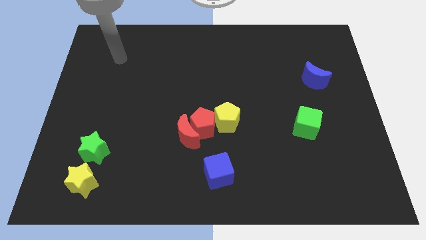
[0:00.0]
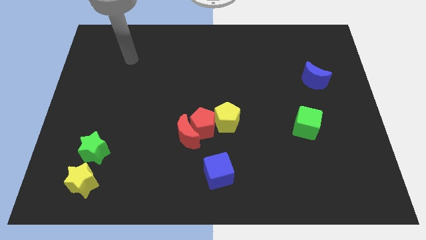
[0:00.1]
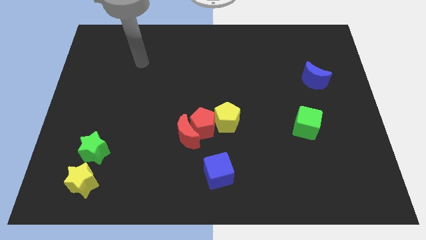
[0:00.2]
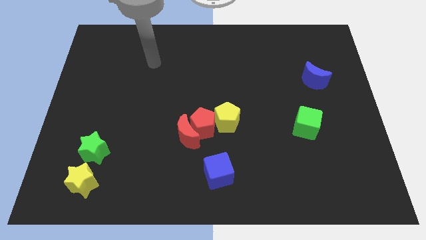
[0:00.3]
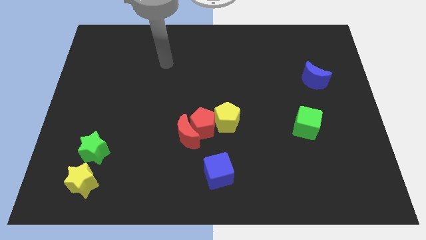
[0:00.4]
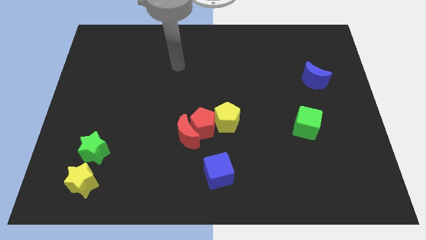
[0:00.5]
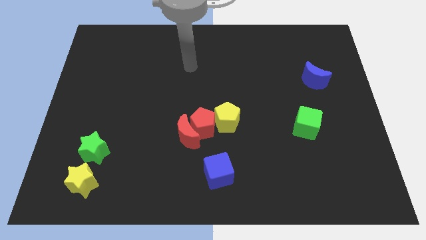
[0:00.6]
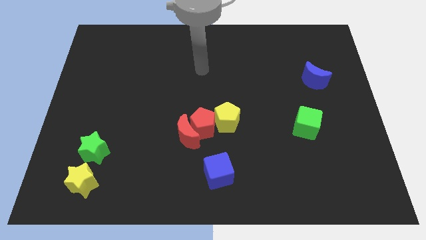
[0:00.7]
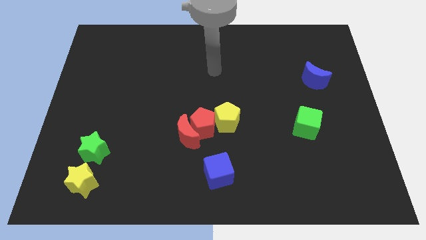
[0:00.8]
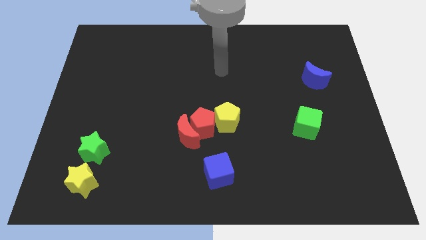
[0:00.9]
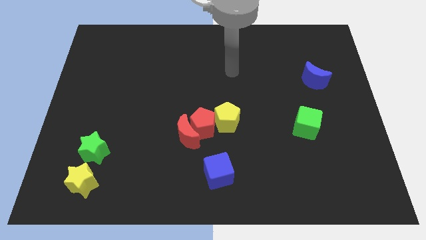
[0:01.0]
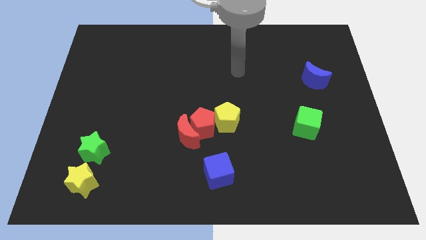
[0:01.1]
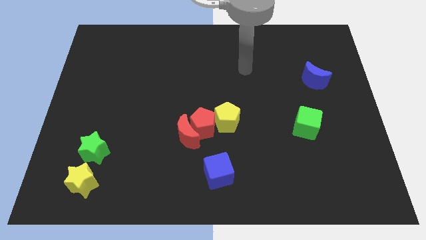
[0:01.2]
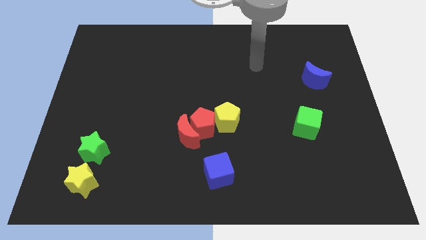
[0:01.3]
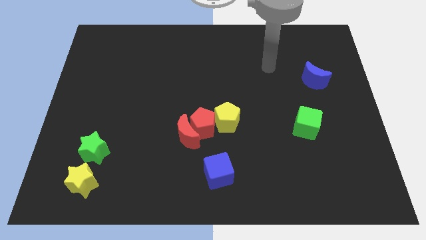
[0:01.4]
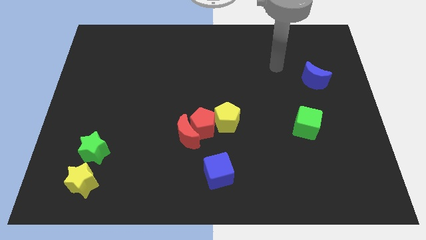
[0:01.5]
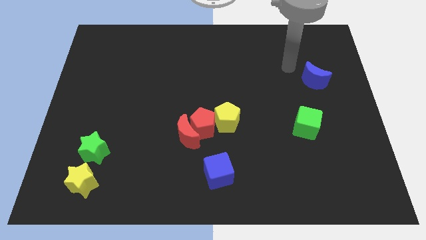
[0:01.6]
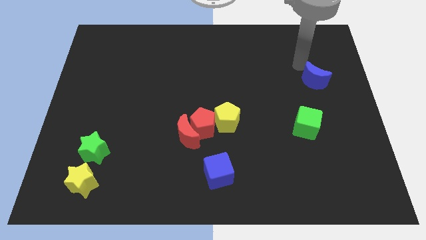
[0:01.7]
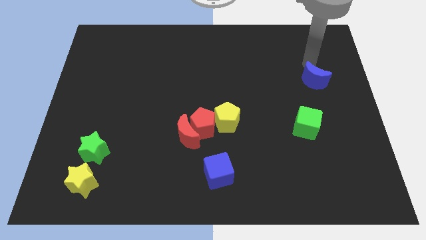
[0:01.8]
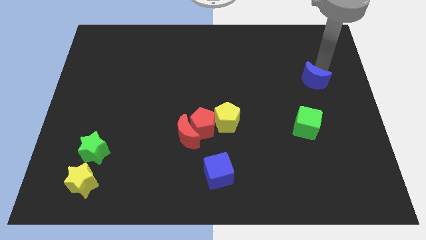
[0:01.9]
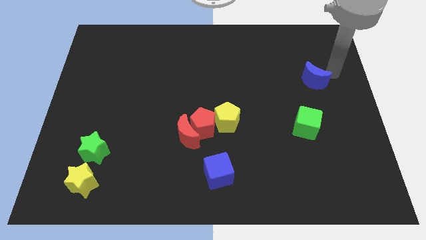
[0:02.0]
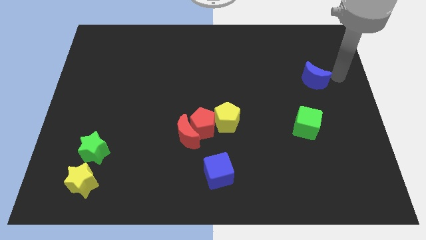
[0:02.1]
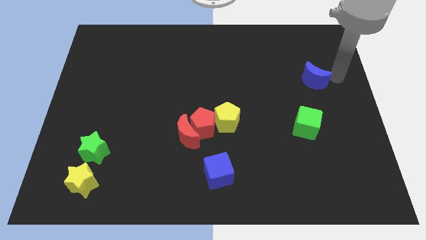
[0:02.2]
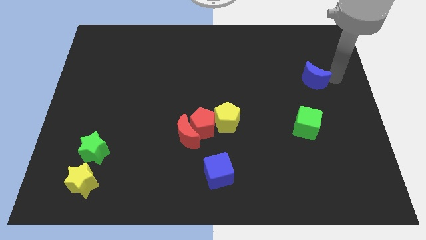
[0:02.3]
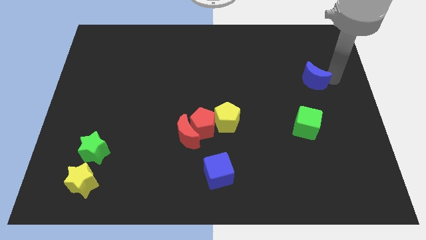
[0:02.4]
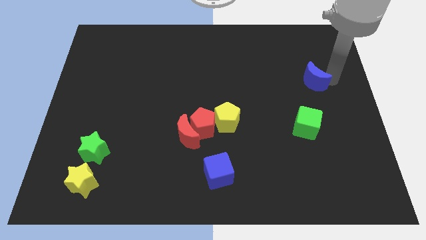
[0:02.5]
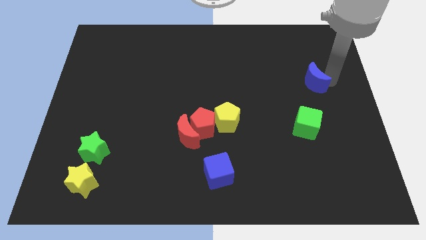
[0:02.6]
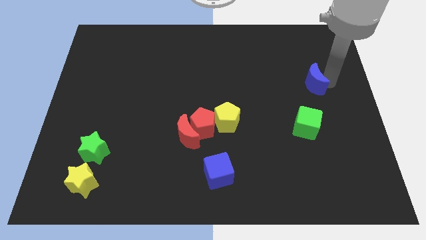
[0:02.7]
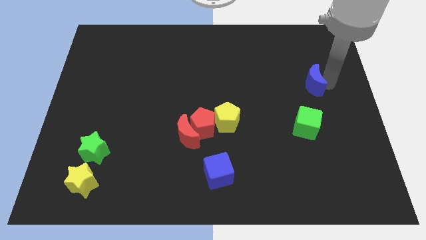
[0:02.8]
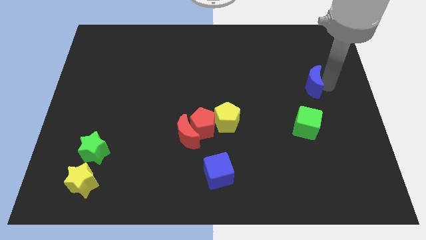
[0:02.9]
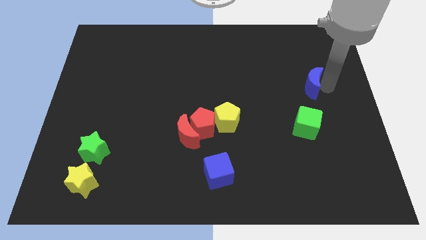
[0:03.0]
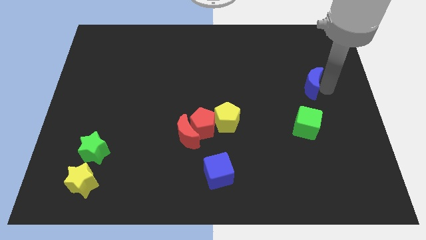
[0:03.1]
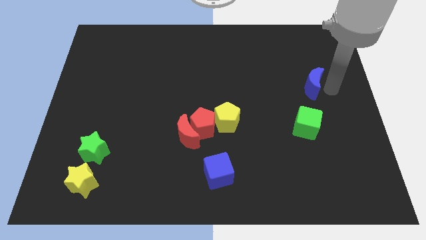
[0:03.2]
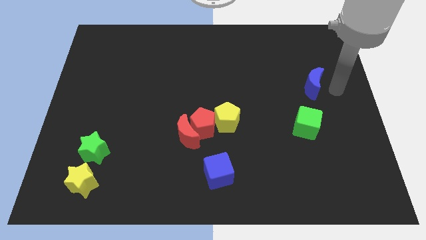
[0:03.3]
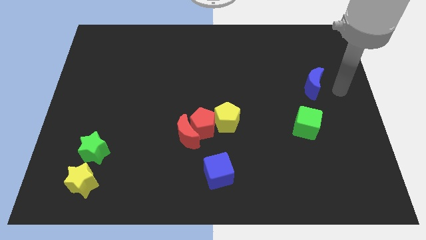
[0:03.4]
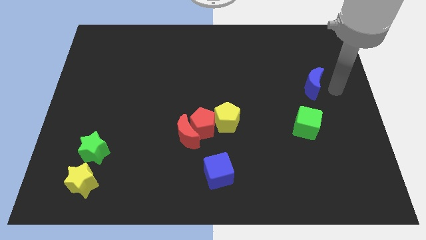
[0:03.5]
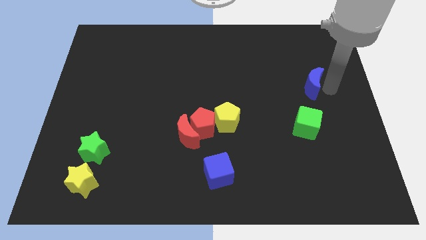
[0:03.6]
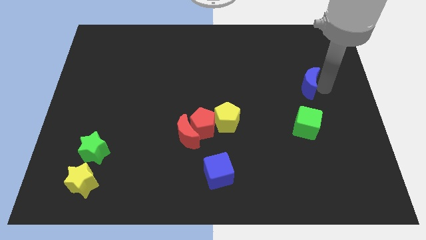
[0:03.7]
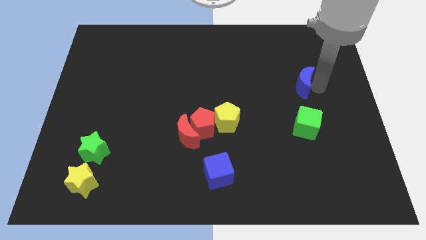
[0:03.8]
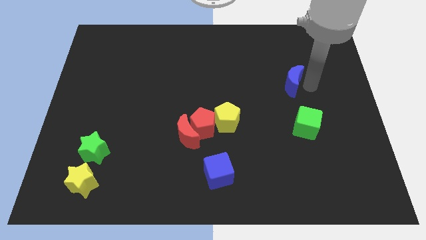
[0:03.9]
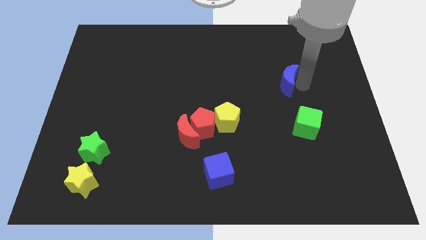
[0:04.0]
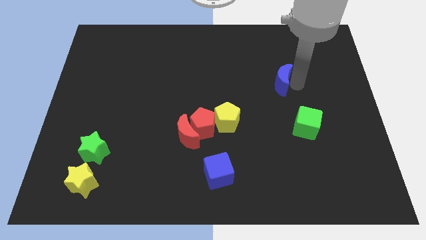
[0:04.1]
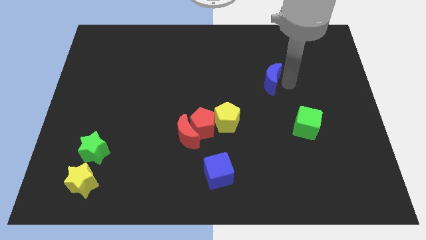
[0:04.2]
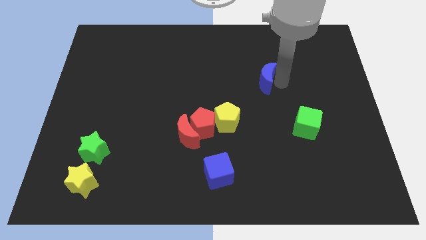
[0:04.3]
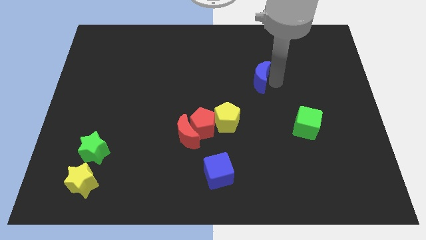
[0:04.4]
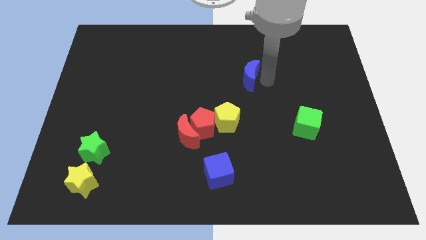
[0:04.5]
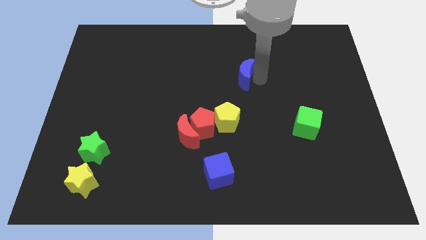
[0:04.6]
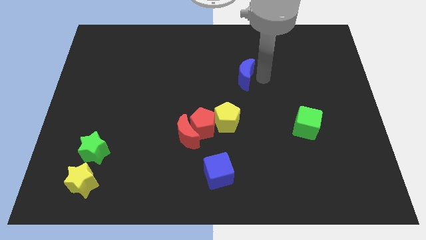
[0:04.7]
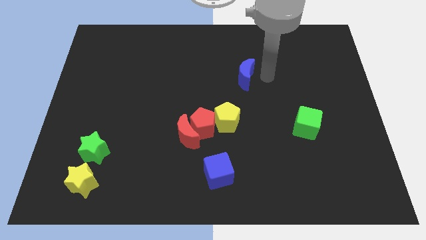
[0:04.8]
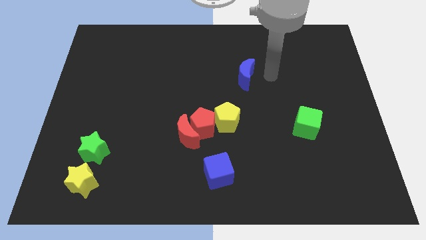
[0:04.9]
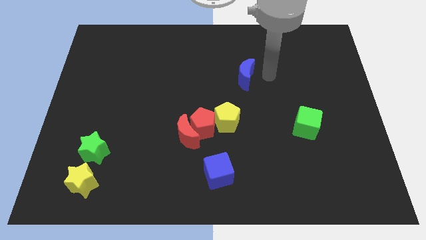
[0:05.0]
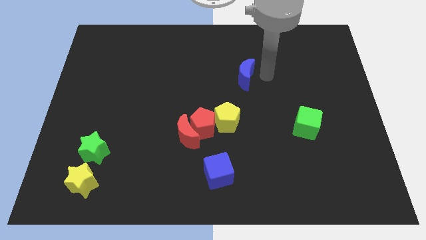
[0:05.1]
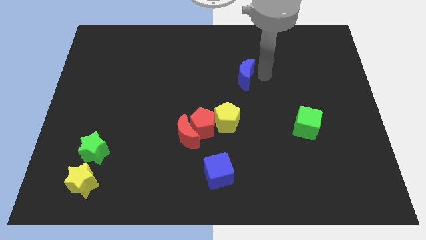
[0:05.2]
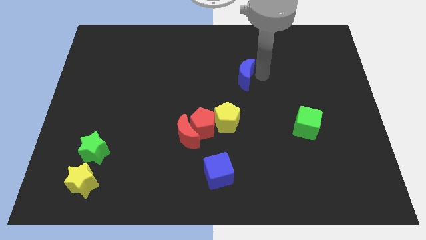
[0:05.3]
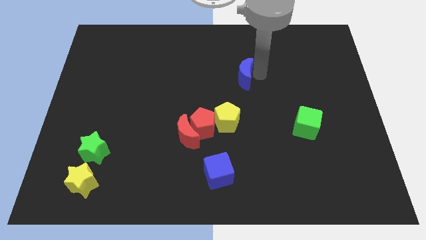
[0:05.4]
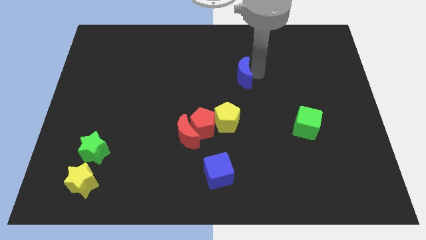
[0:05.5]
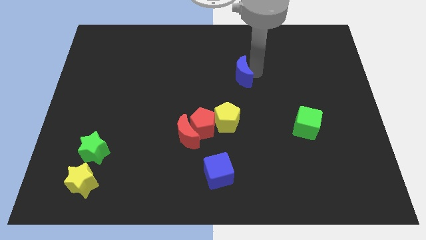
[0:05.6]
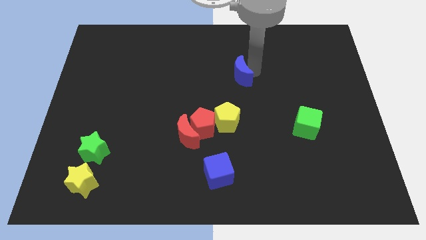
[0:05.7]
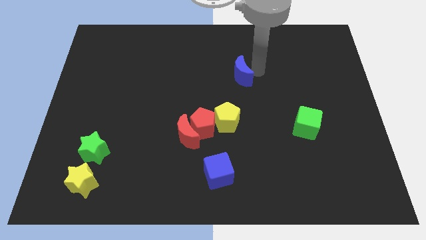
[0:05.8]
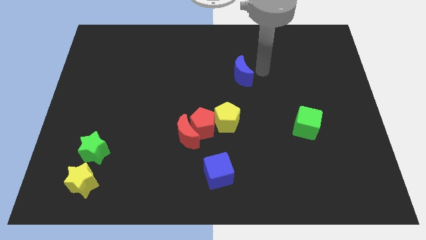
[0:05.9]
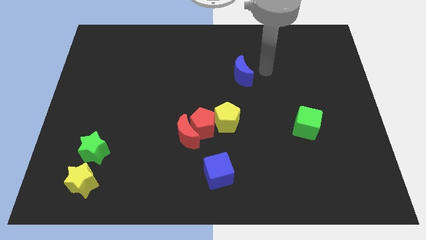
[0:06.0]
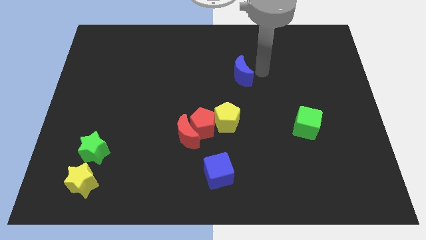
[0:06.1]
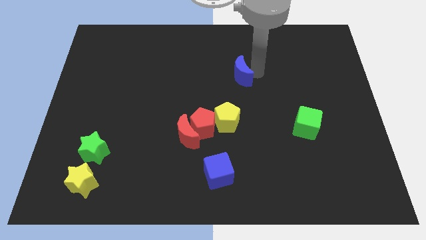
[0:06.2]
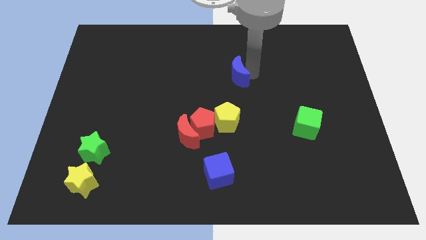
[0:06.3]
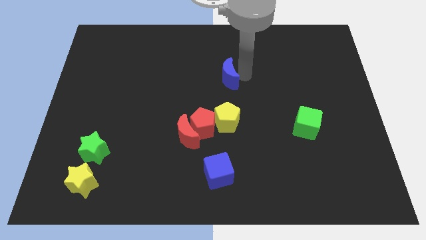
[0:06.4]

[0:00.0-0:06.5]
move the blue moon left

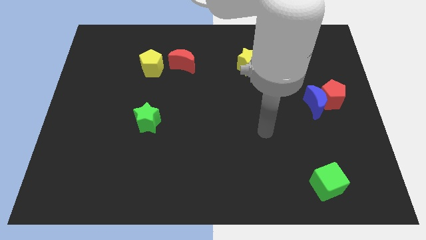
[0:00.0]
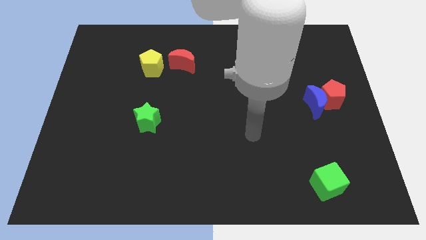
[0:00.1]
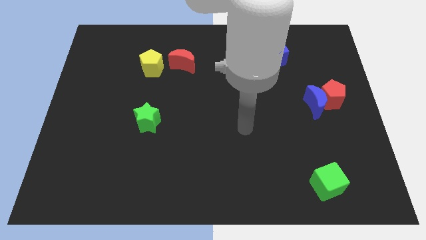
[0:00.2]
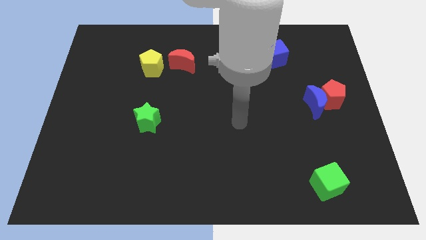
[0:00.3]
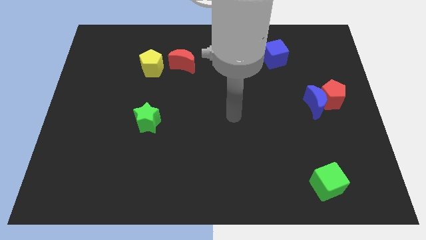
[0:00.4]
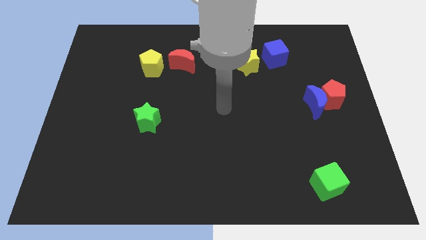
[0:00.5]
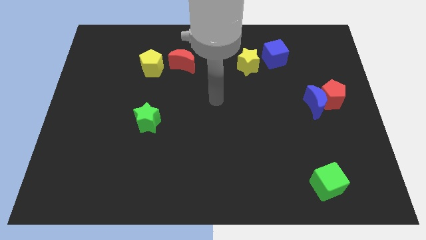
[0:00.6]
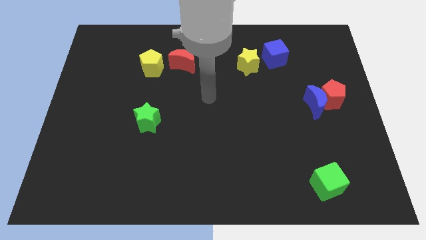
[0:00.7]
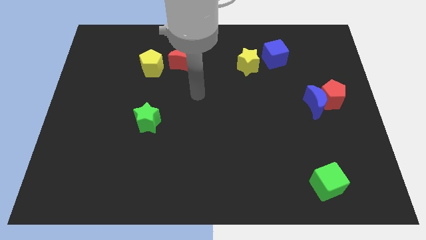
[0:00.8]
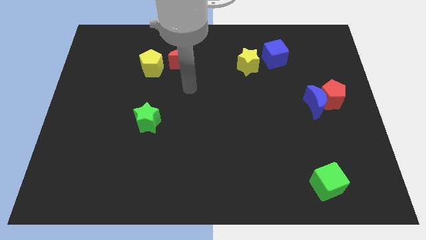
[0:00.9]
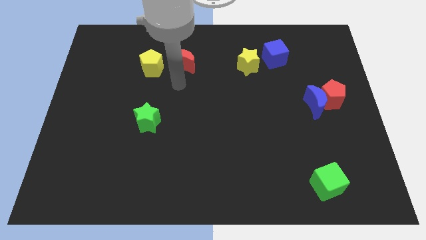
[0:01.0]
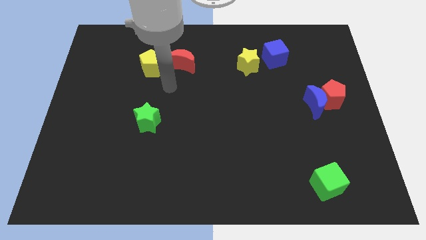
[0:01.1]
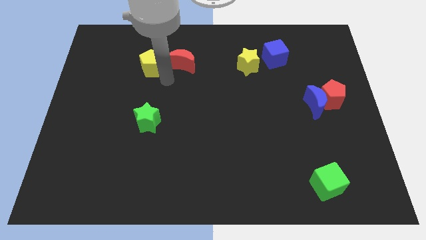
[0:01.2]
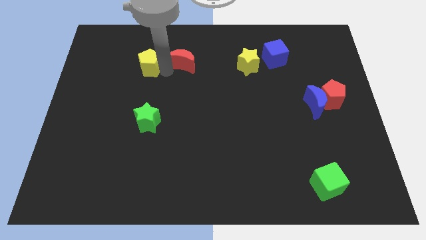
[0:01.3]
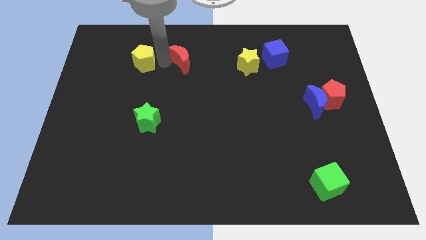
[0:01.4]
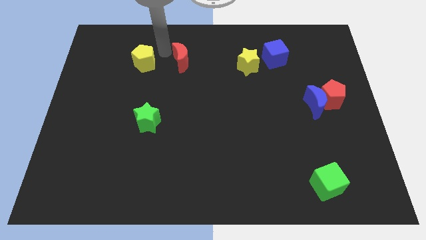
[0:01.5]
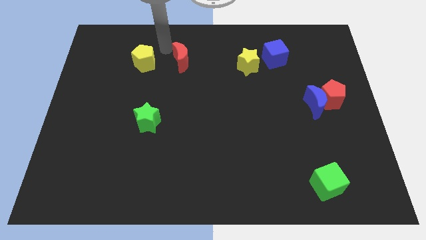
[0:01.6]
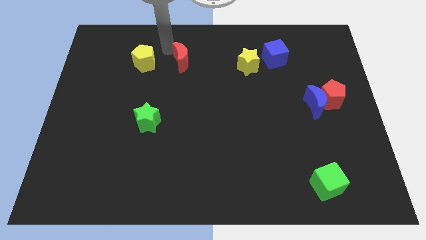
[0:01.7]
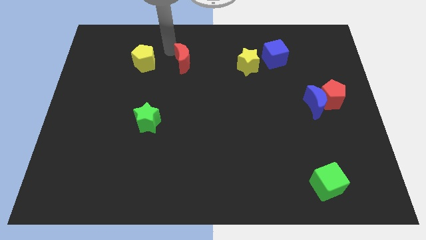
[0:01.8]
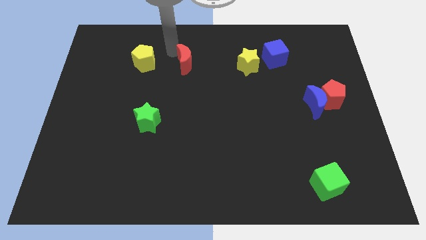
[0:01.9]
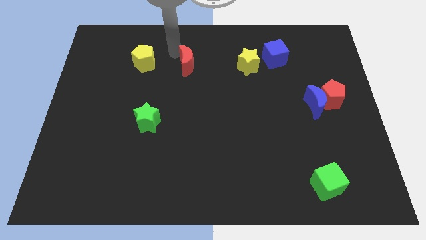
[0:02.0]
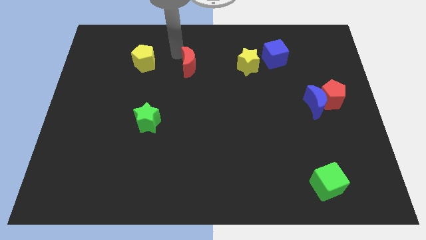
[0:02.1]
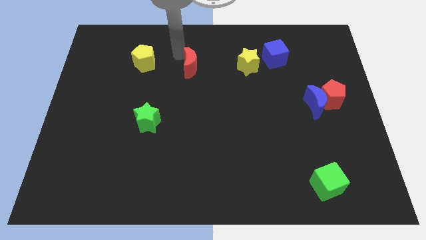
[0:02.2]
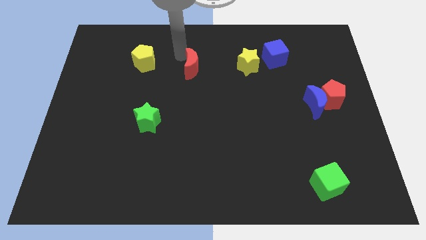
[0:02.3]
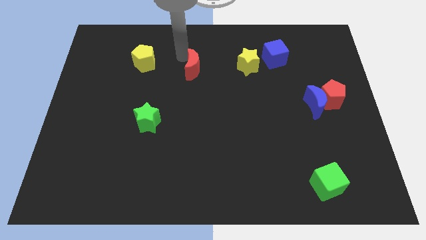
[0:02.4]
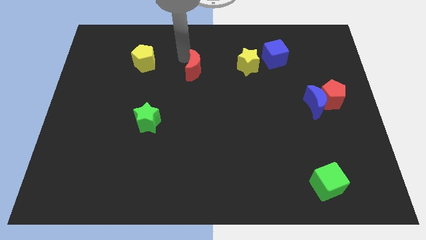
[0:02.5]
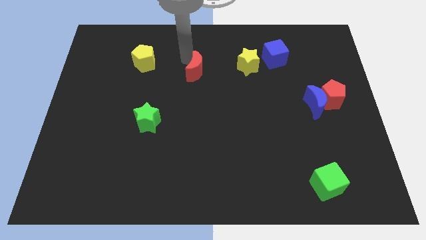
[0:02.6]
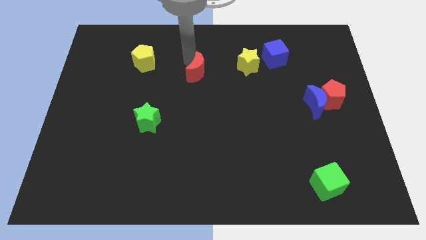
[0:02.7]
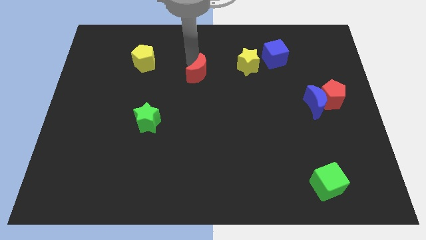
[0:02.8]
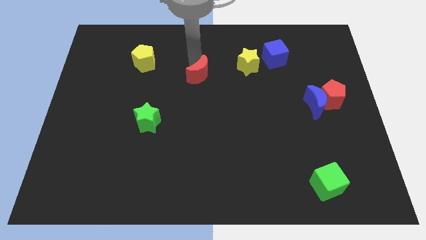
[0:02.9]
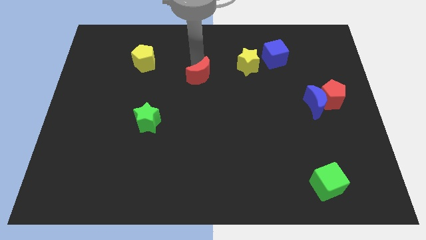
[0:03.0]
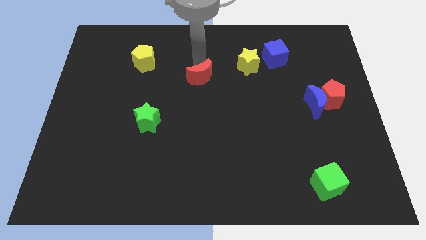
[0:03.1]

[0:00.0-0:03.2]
move the red moon a little bit diagonally downwards and right
